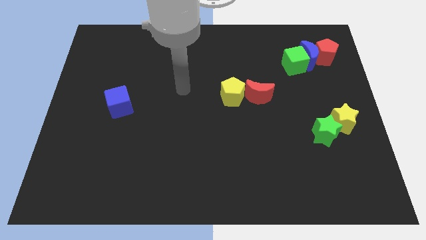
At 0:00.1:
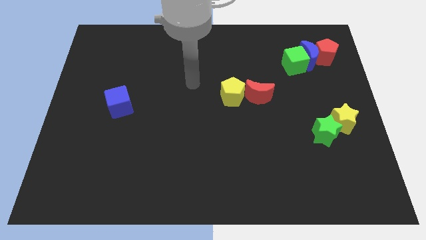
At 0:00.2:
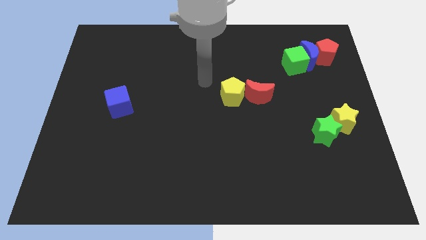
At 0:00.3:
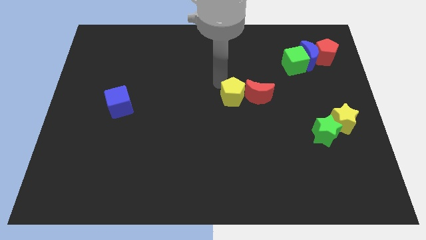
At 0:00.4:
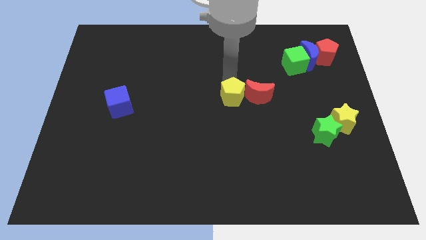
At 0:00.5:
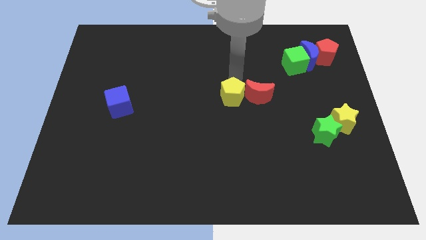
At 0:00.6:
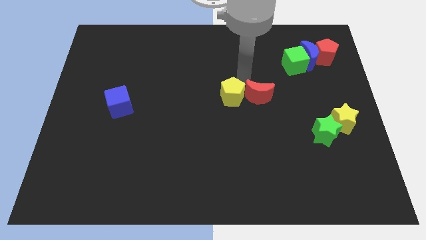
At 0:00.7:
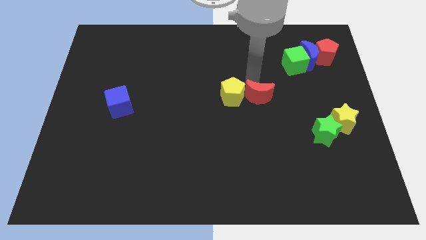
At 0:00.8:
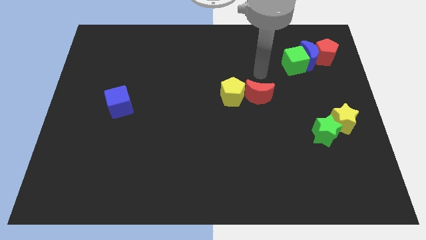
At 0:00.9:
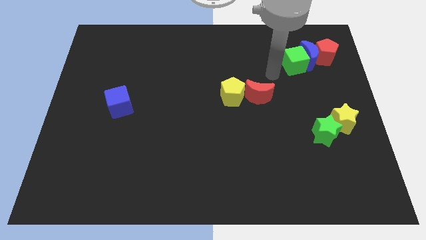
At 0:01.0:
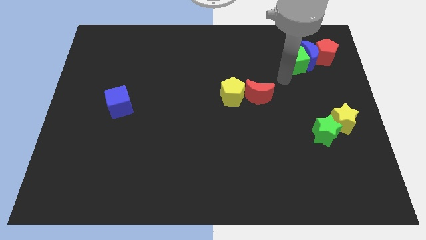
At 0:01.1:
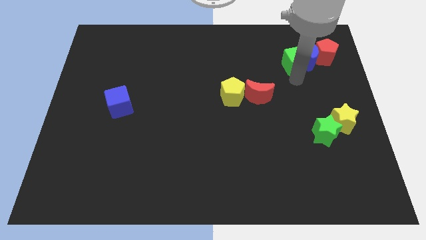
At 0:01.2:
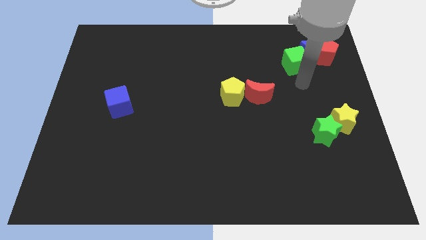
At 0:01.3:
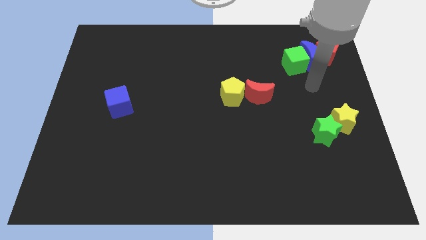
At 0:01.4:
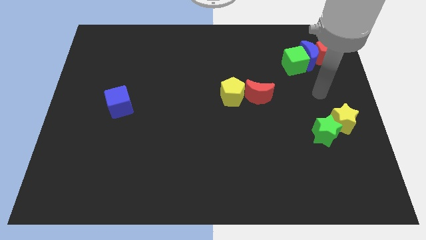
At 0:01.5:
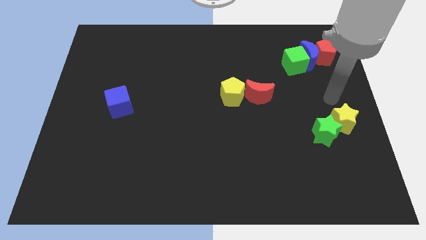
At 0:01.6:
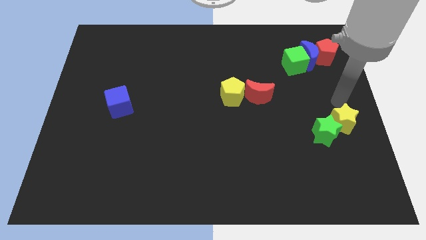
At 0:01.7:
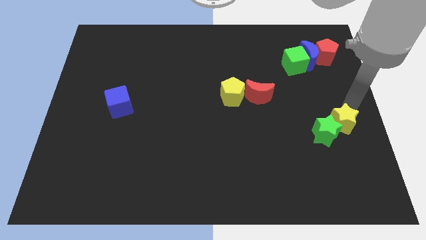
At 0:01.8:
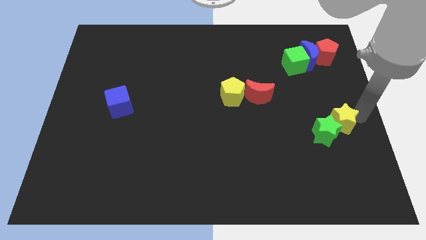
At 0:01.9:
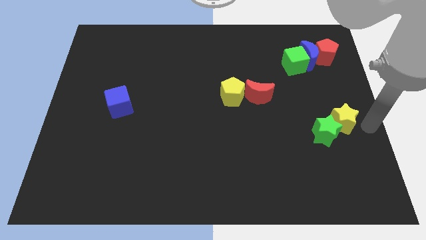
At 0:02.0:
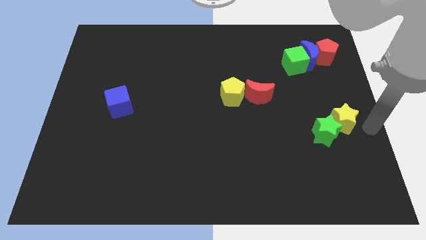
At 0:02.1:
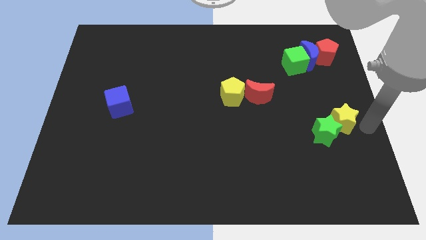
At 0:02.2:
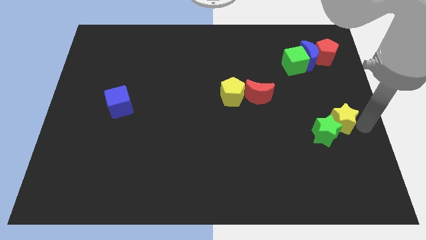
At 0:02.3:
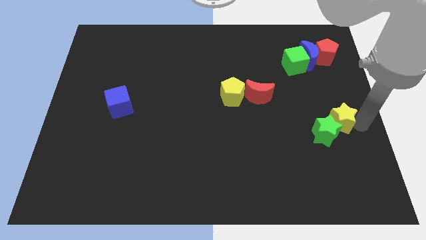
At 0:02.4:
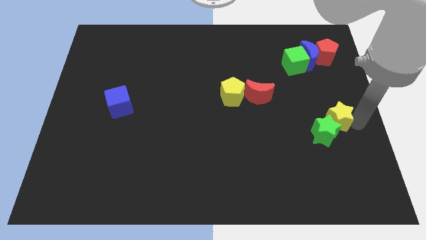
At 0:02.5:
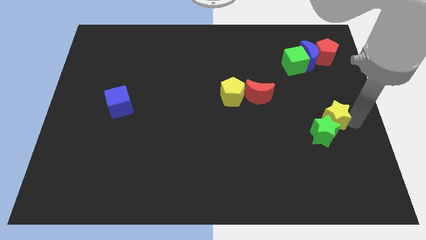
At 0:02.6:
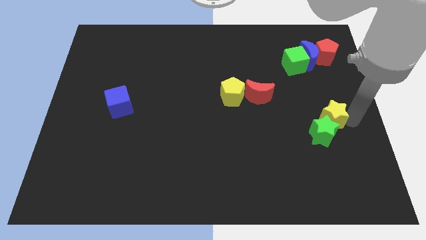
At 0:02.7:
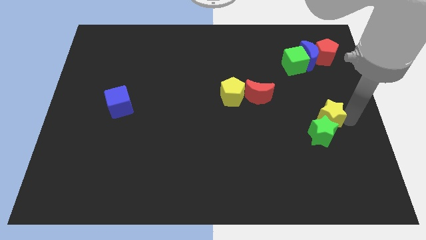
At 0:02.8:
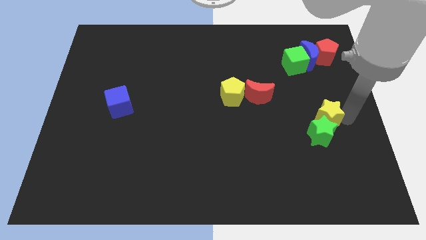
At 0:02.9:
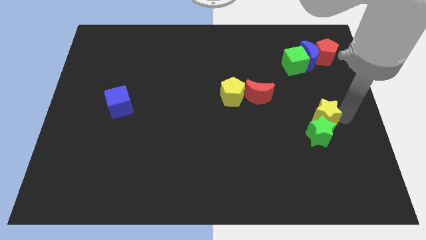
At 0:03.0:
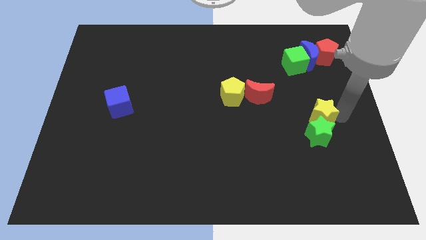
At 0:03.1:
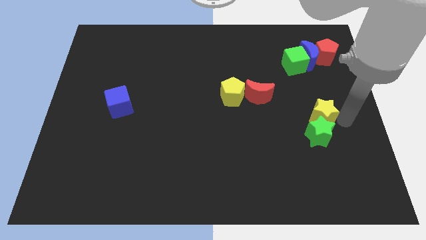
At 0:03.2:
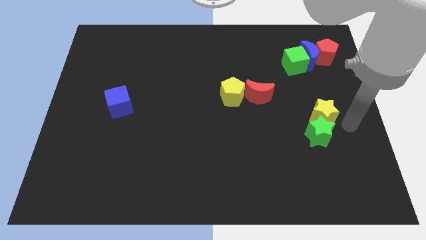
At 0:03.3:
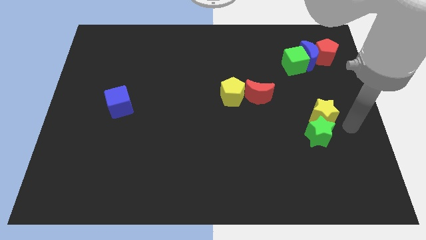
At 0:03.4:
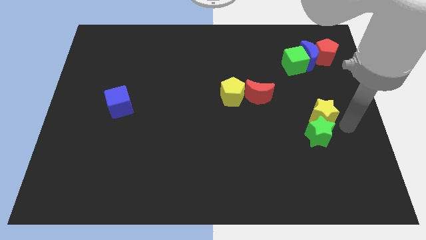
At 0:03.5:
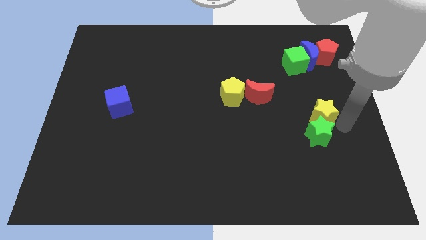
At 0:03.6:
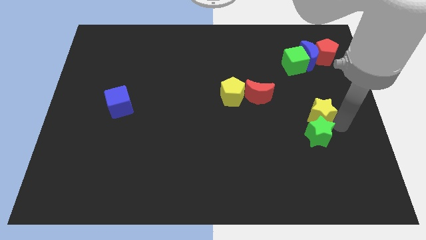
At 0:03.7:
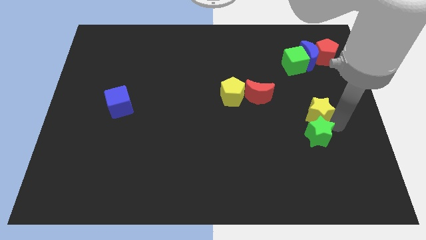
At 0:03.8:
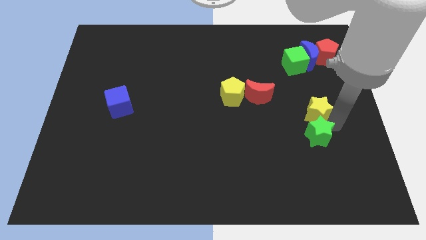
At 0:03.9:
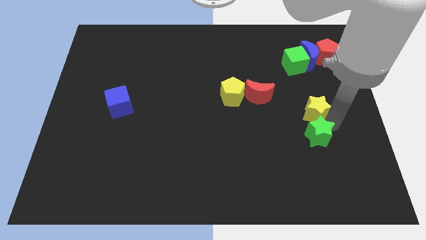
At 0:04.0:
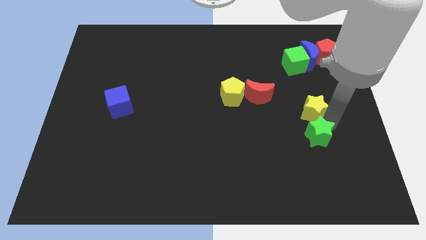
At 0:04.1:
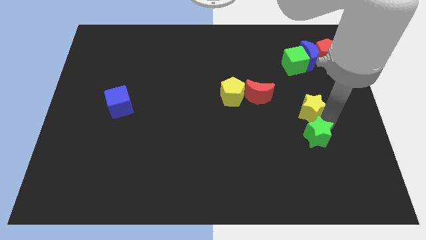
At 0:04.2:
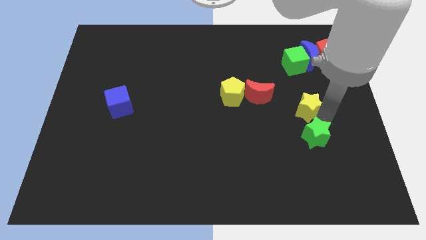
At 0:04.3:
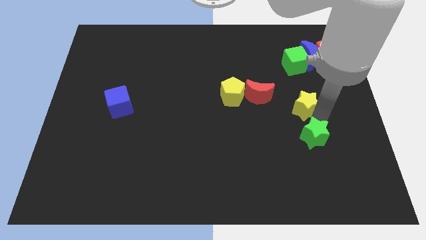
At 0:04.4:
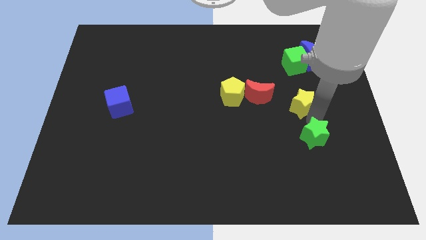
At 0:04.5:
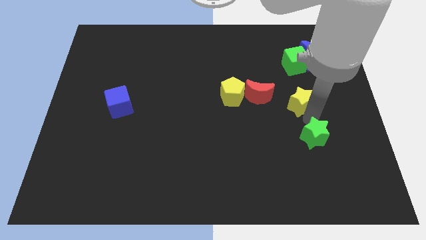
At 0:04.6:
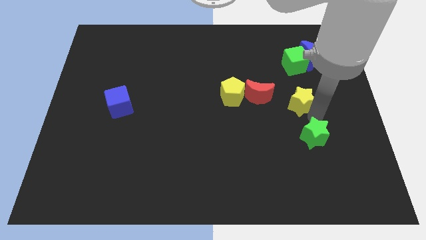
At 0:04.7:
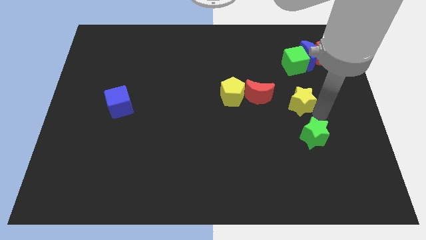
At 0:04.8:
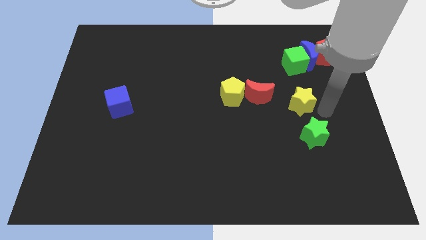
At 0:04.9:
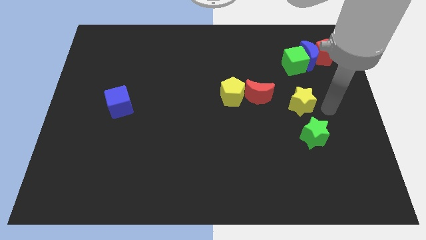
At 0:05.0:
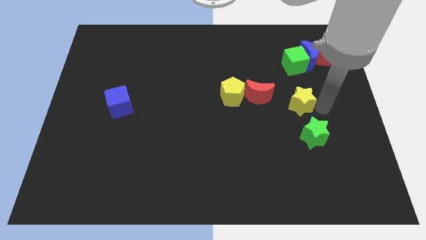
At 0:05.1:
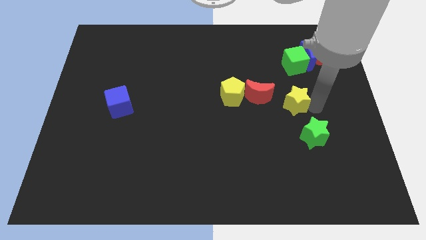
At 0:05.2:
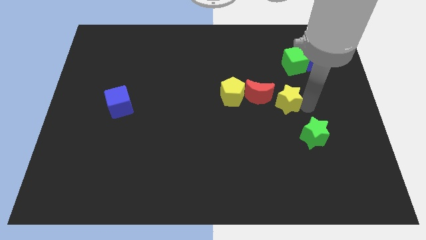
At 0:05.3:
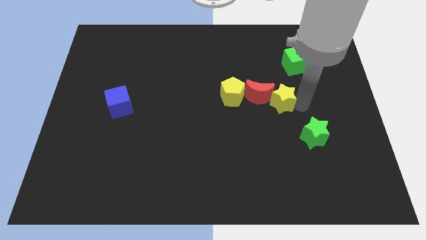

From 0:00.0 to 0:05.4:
slide the yellow star close to the red moon

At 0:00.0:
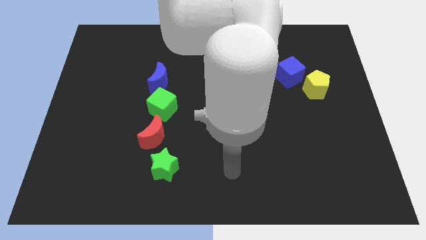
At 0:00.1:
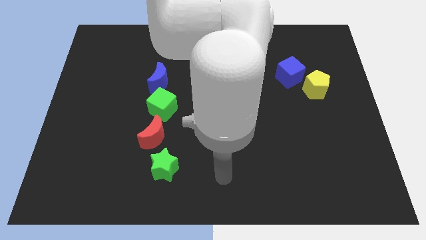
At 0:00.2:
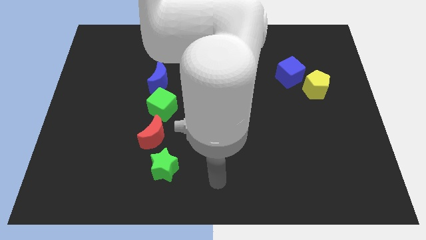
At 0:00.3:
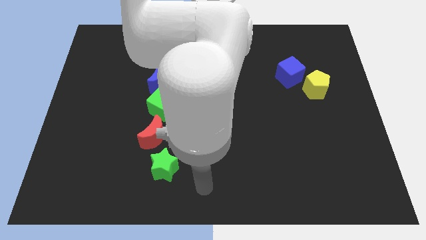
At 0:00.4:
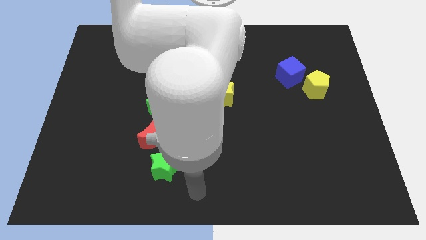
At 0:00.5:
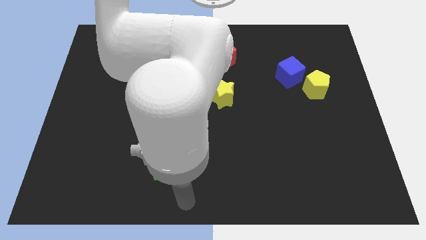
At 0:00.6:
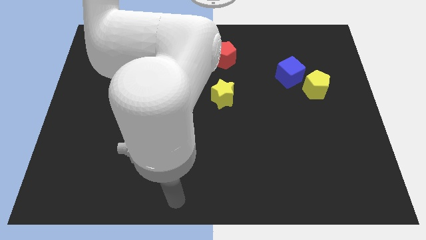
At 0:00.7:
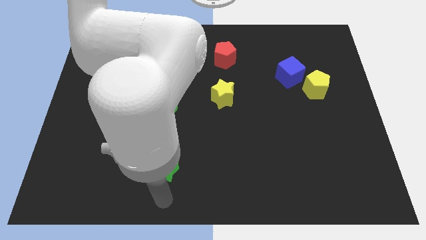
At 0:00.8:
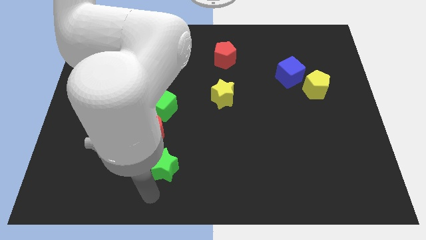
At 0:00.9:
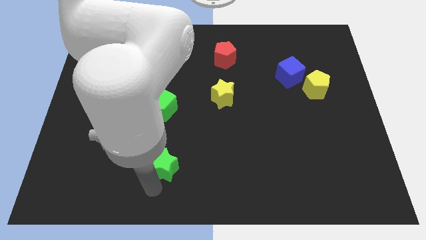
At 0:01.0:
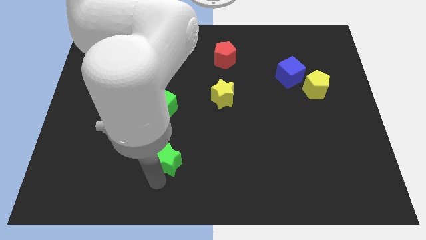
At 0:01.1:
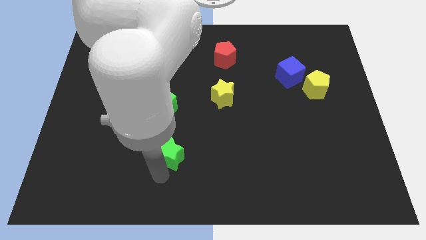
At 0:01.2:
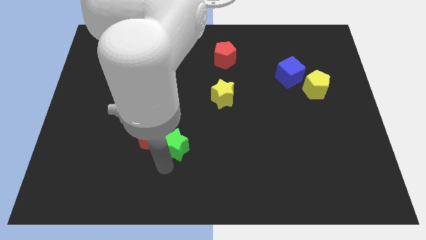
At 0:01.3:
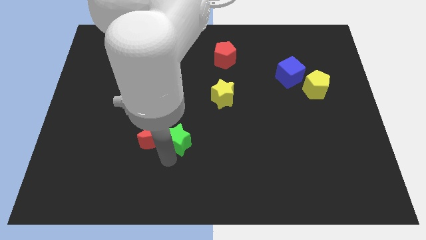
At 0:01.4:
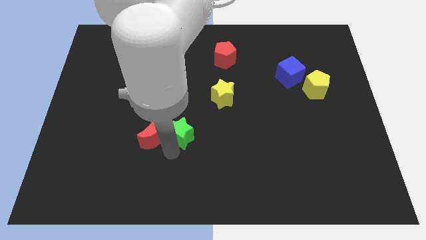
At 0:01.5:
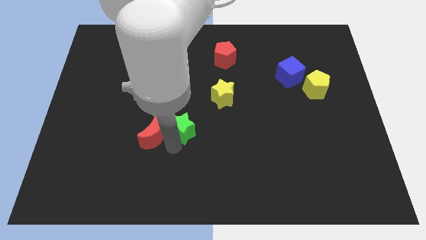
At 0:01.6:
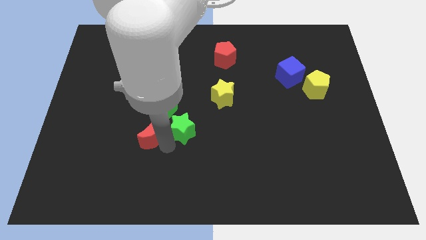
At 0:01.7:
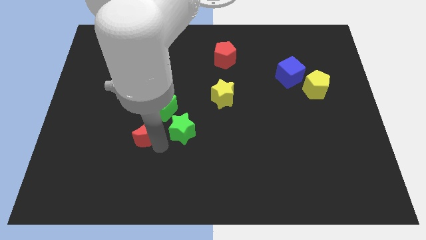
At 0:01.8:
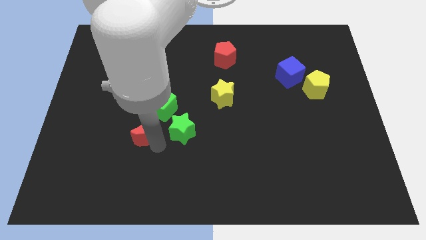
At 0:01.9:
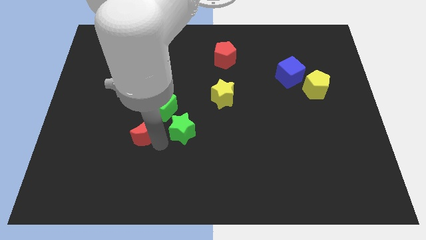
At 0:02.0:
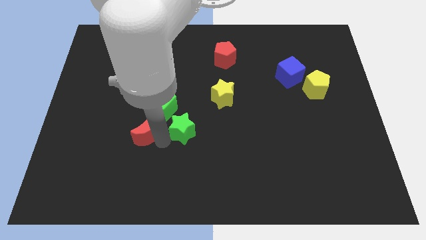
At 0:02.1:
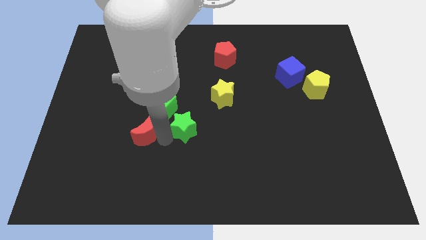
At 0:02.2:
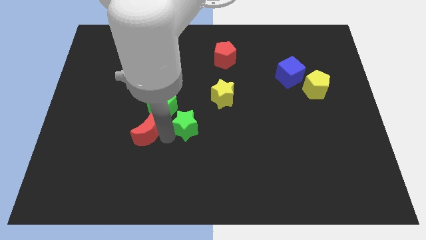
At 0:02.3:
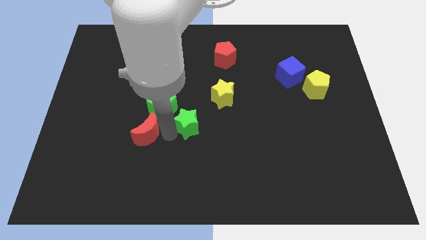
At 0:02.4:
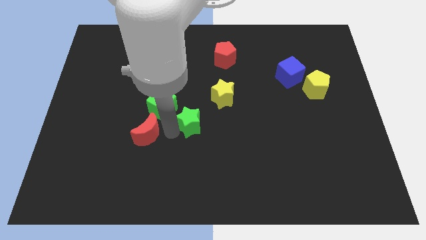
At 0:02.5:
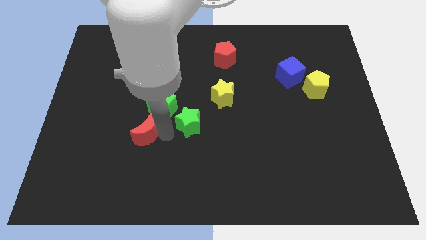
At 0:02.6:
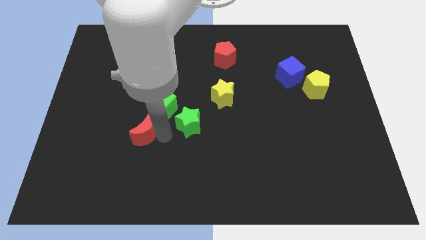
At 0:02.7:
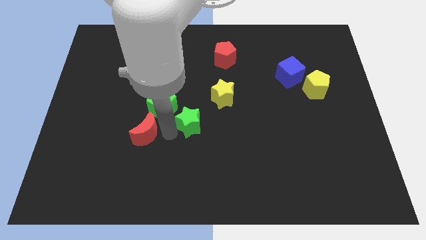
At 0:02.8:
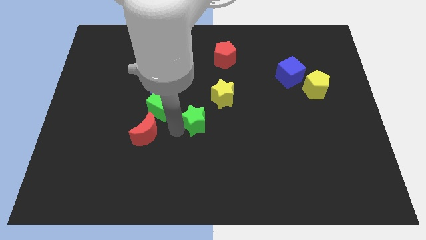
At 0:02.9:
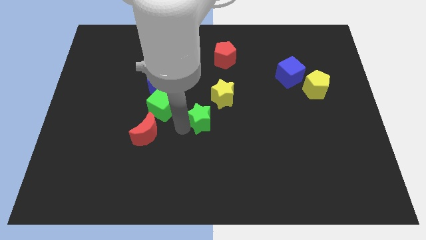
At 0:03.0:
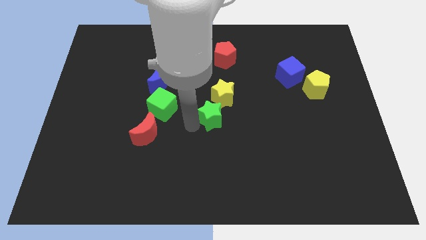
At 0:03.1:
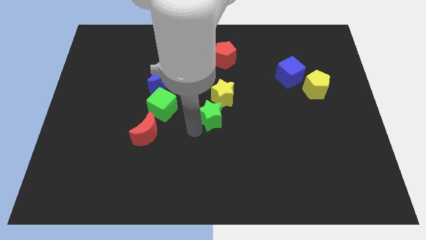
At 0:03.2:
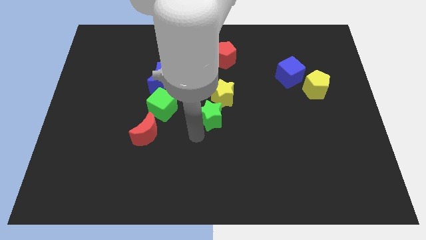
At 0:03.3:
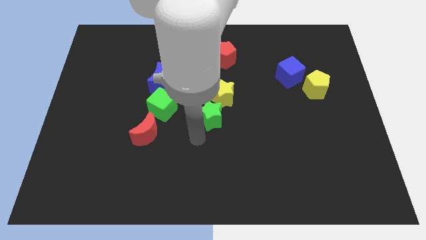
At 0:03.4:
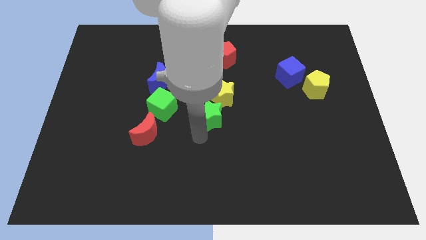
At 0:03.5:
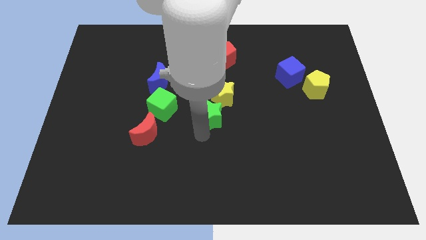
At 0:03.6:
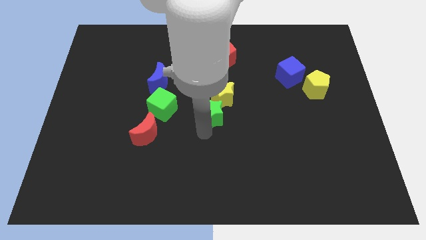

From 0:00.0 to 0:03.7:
slide the green star to the yellow star
